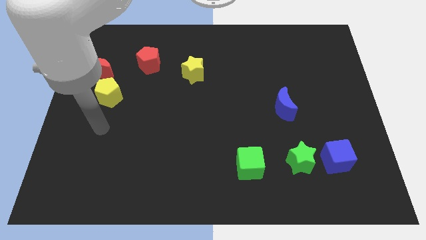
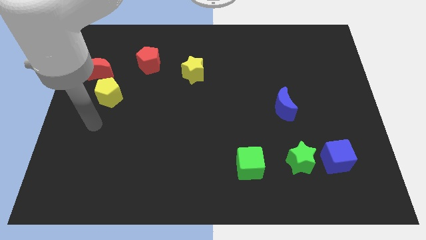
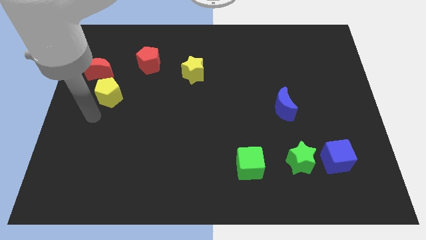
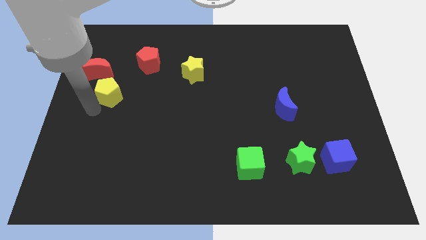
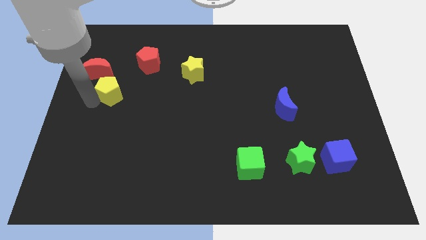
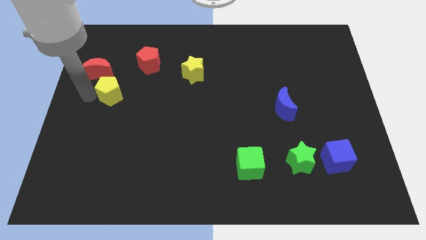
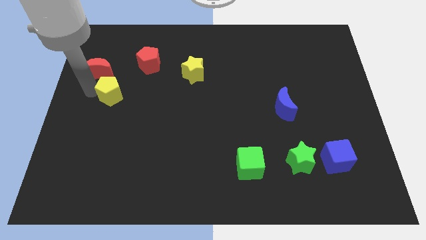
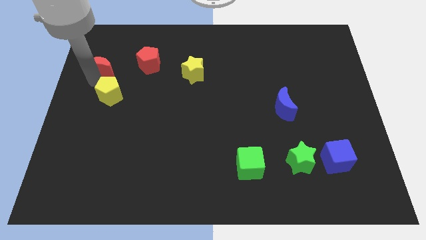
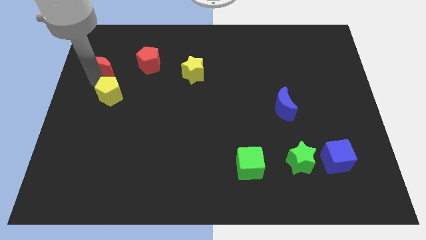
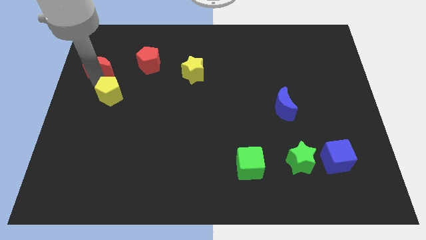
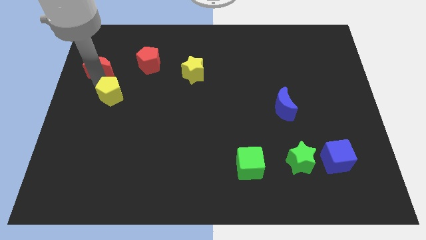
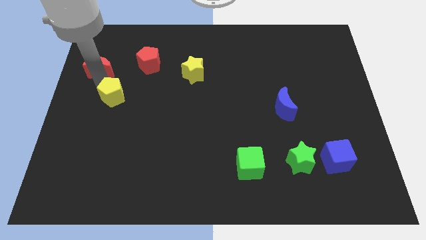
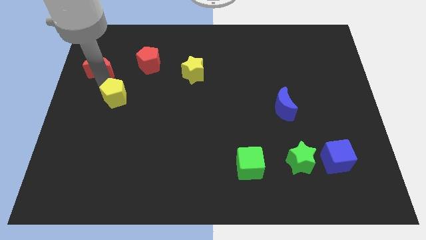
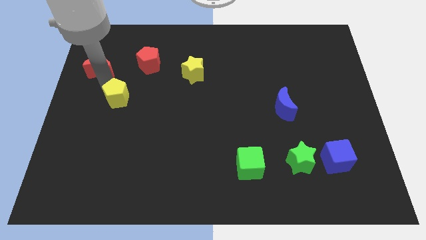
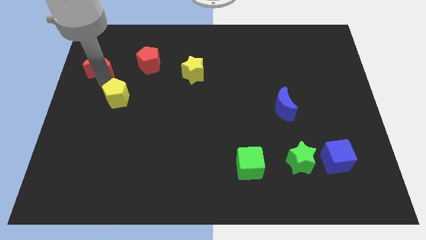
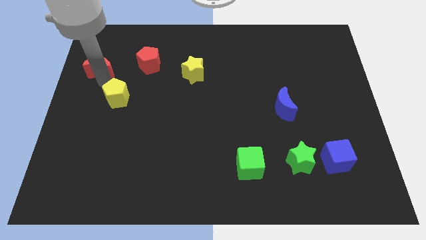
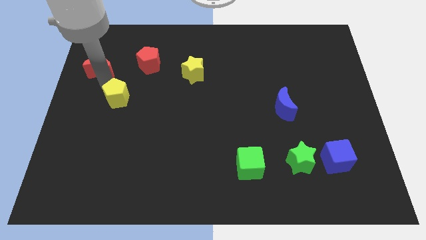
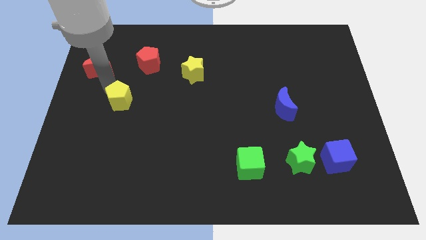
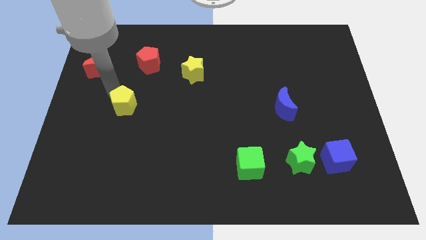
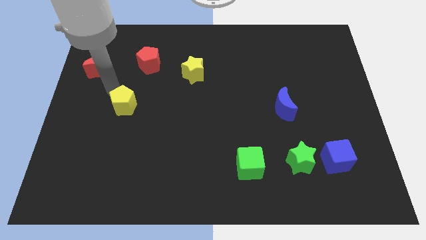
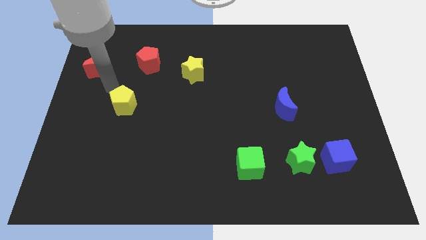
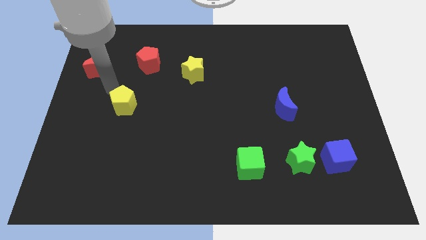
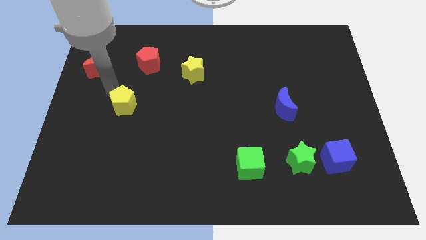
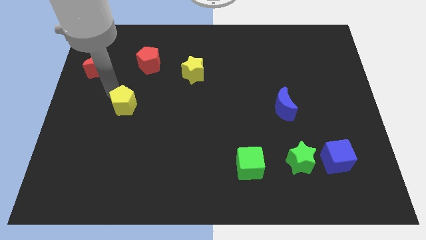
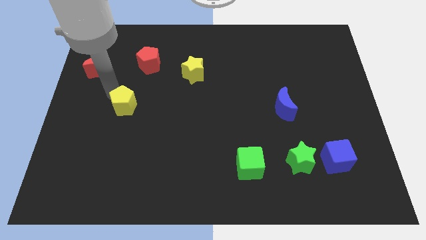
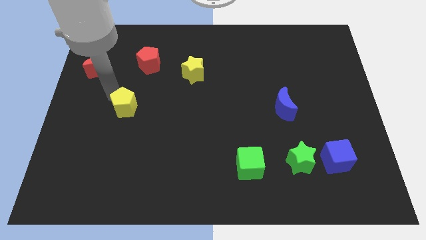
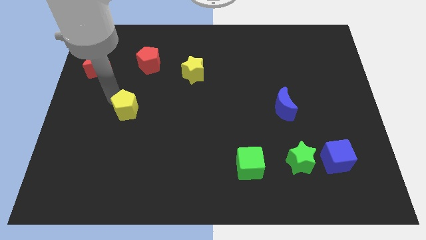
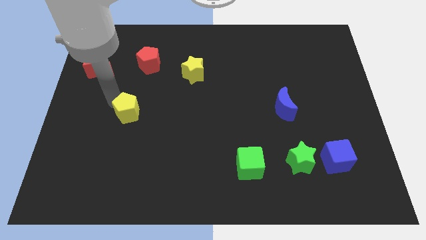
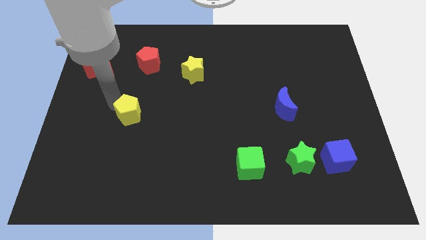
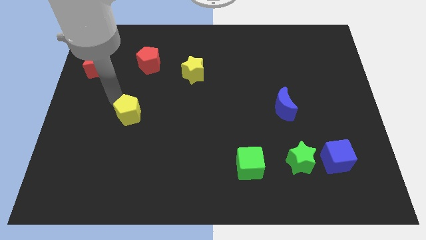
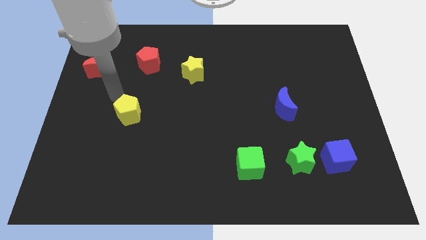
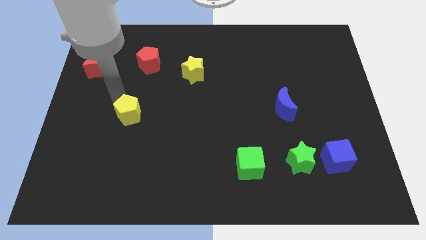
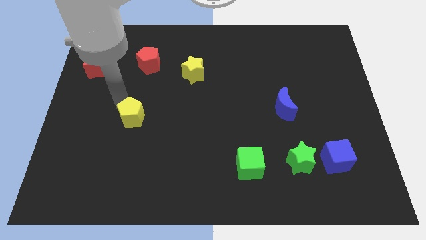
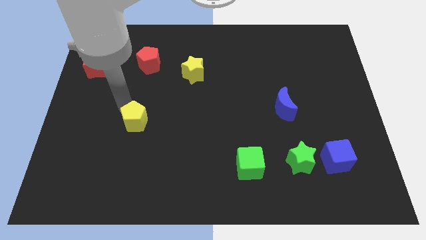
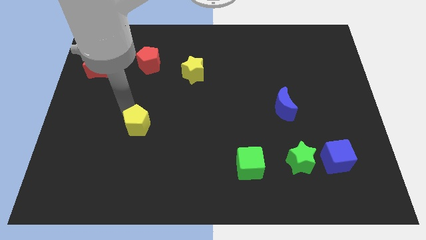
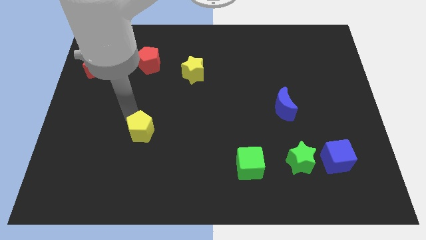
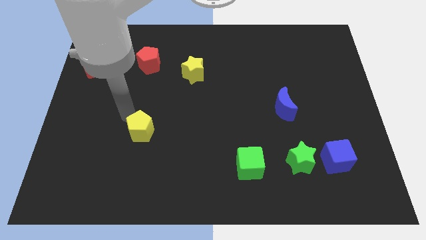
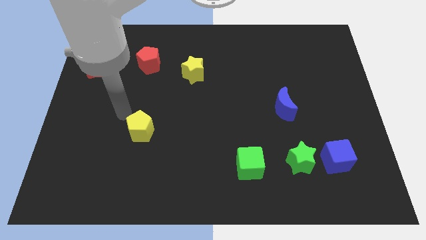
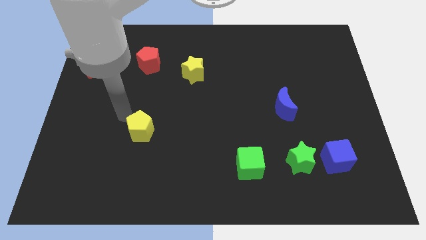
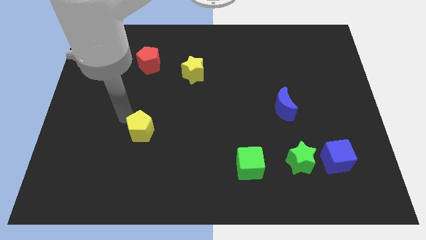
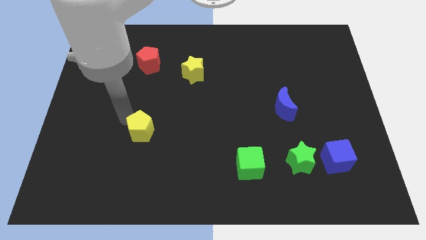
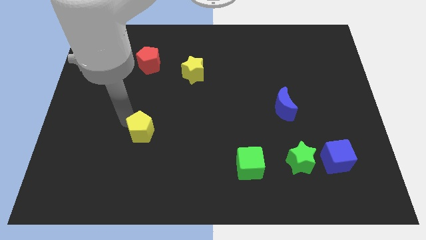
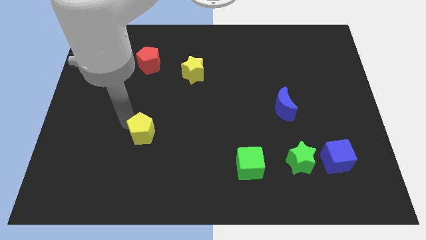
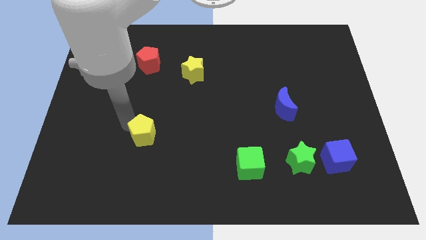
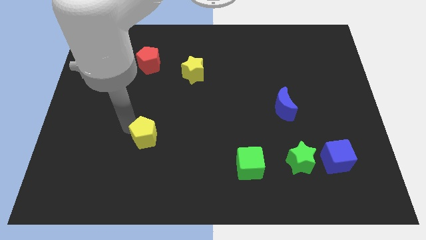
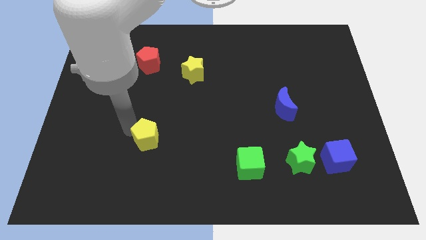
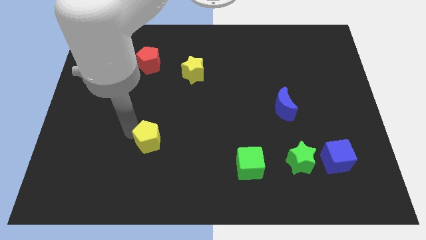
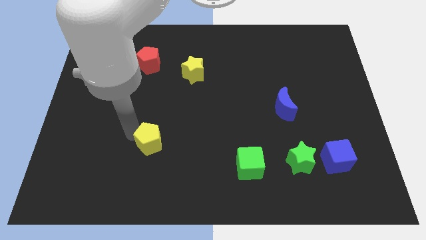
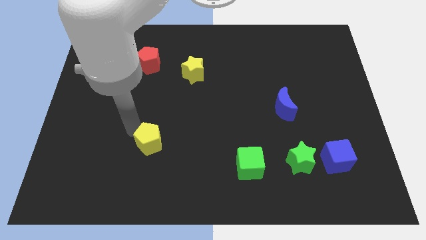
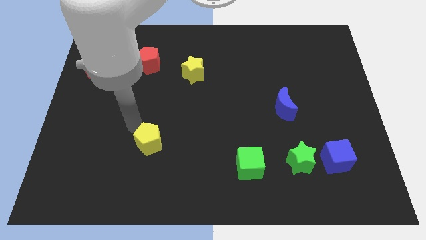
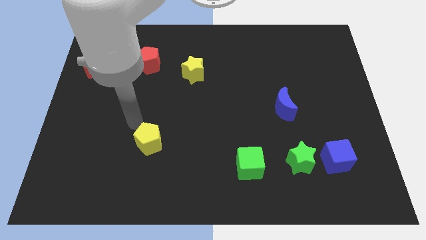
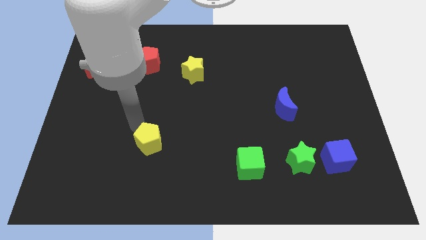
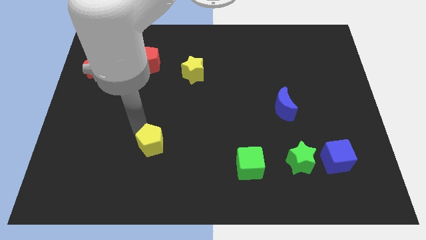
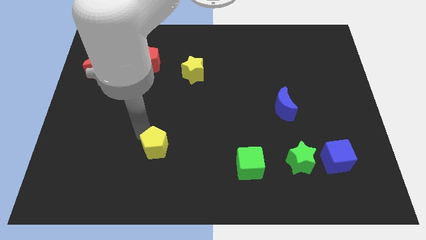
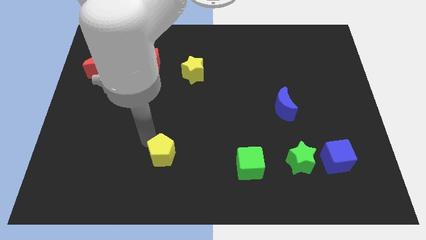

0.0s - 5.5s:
slide the yellow pentagon downwards and to the right

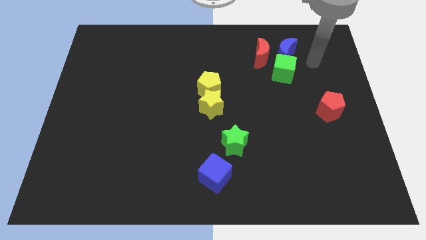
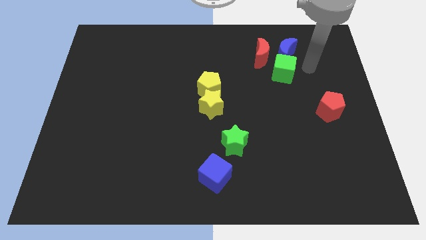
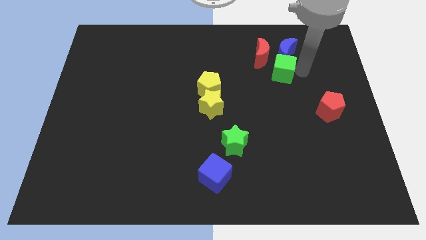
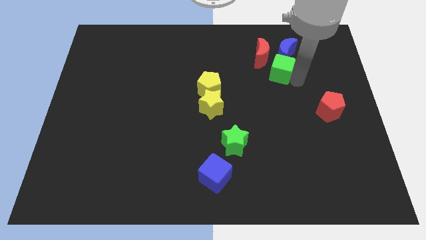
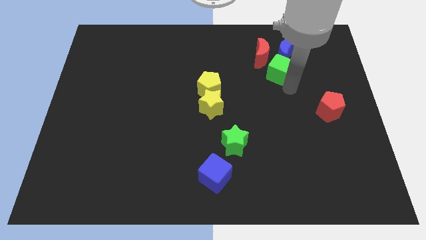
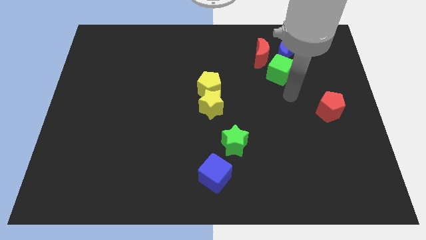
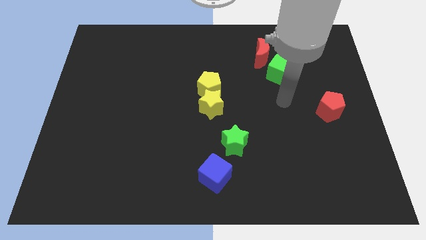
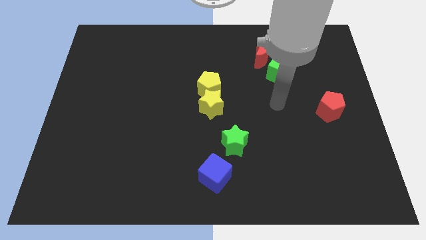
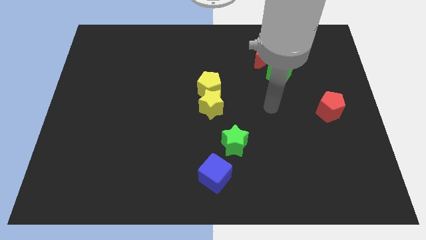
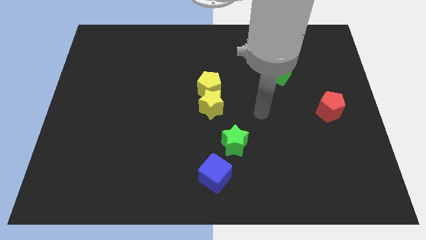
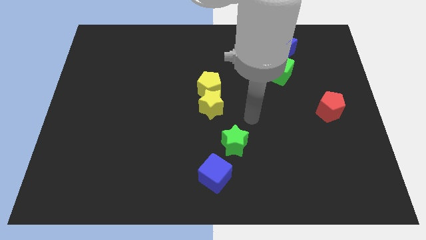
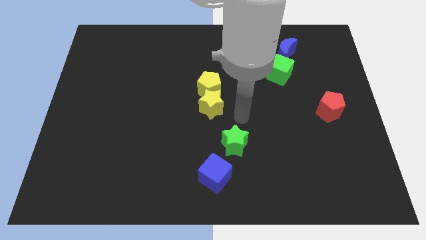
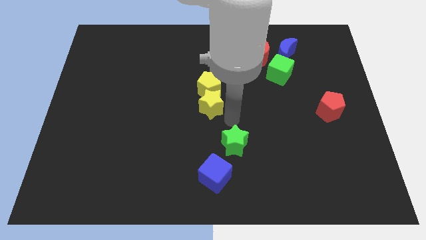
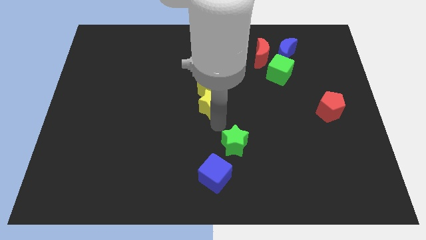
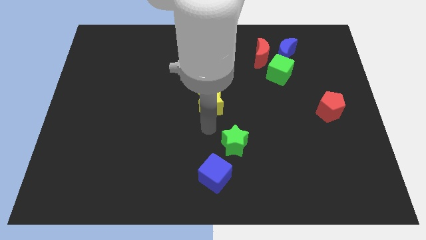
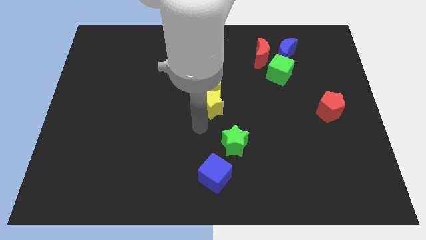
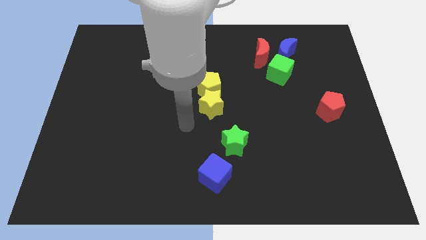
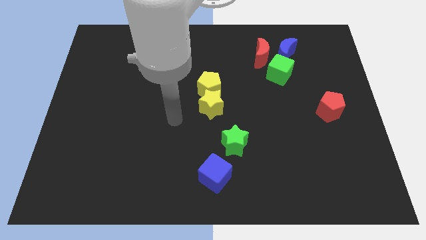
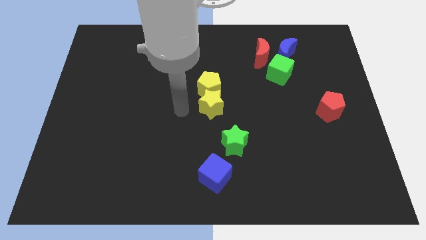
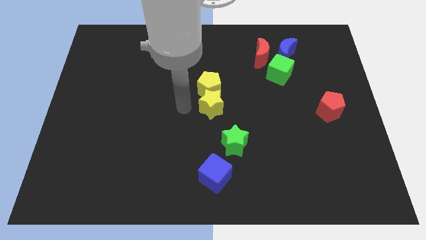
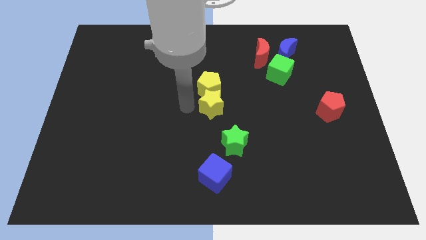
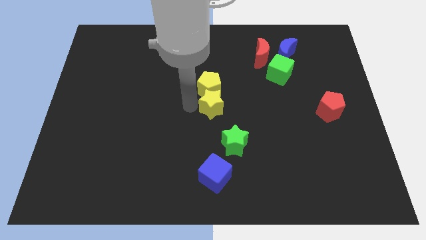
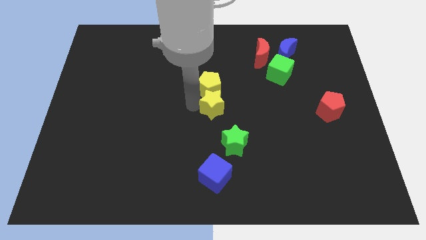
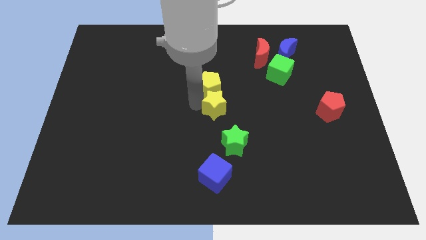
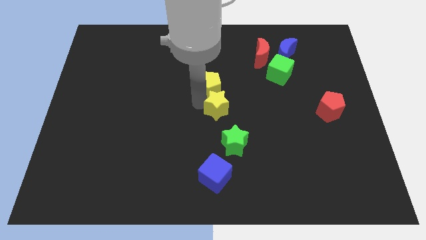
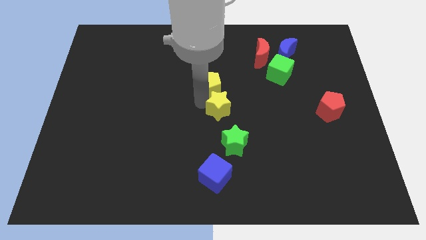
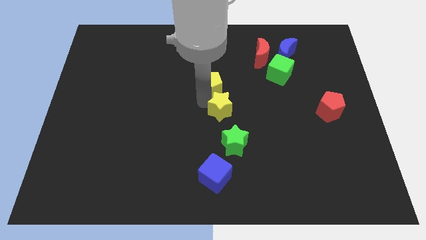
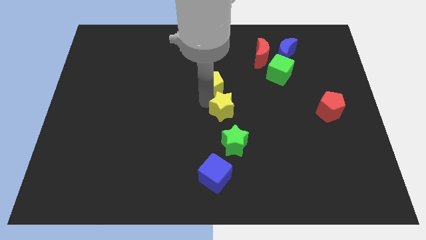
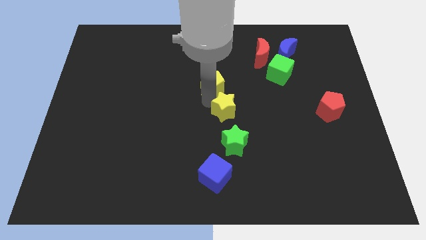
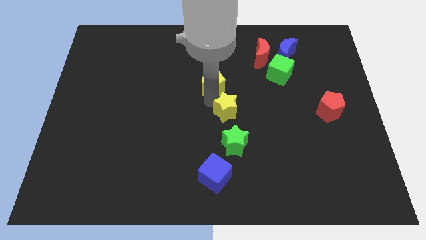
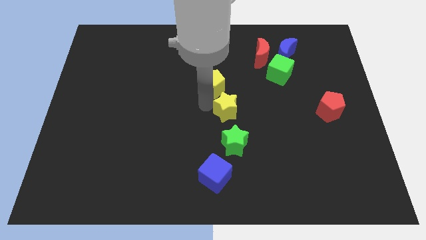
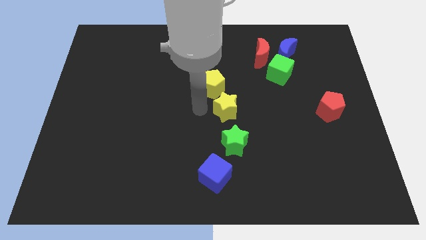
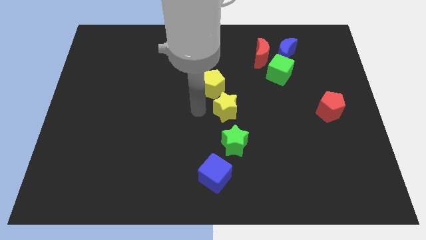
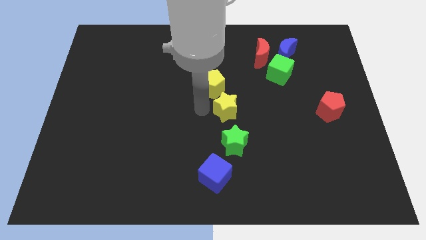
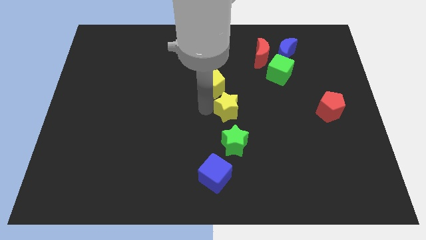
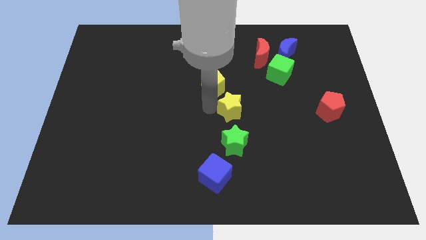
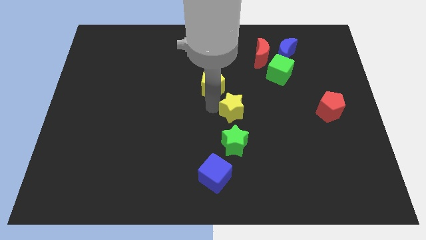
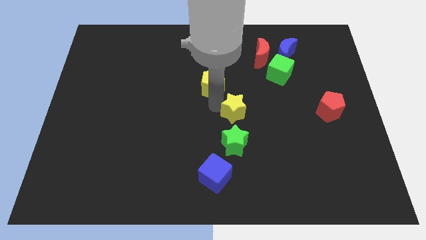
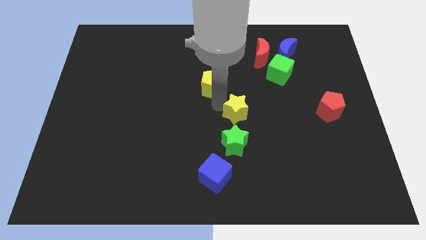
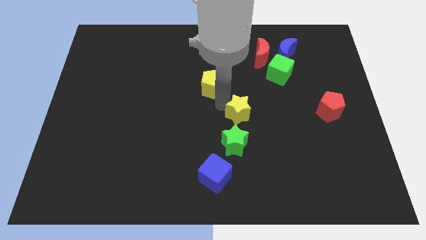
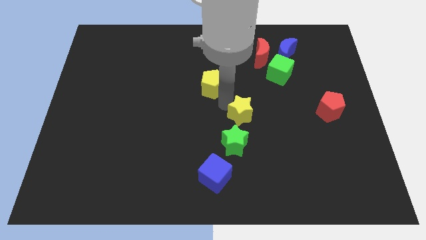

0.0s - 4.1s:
slightly move the yellow star right
